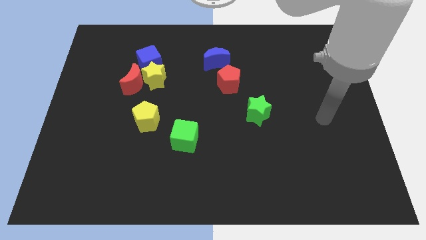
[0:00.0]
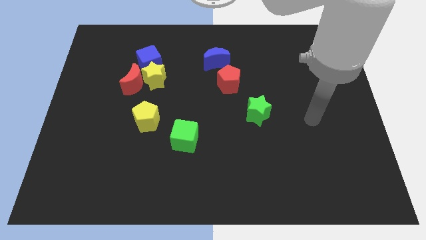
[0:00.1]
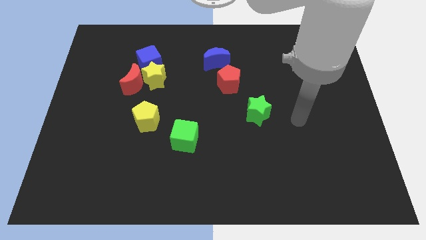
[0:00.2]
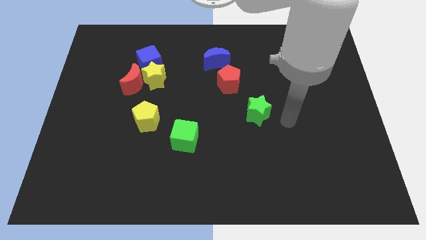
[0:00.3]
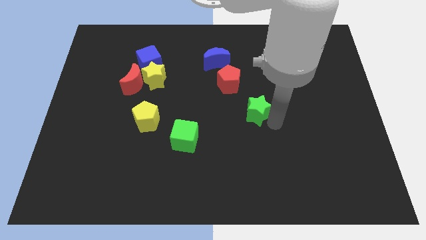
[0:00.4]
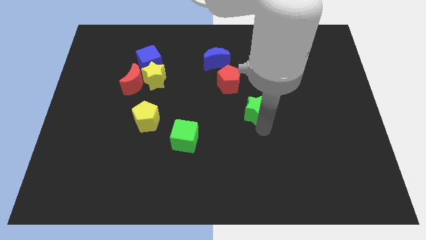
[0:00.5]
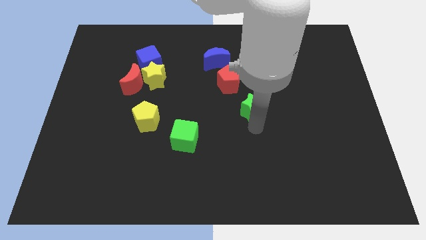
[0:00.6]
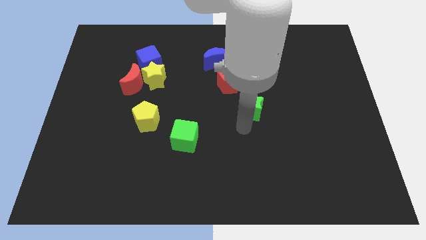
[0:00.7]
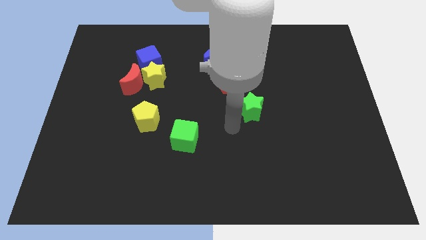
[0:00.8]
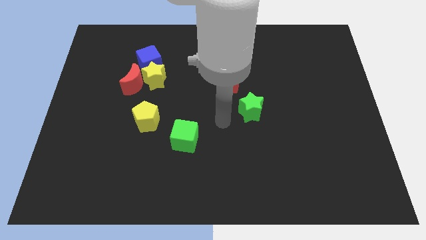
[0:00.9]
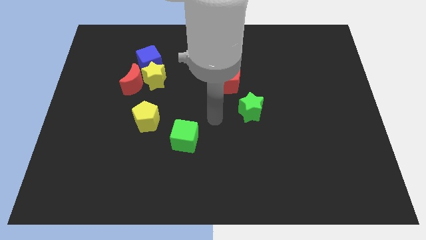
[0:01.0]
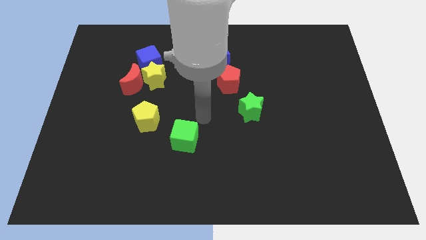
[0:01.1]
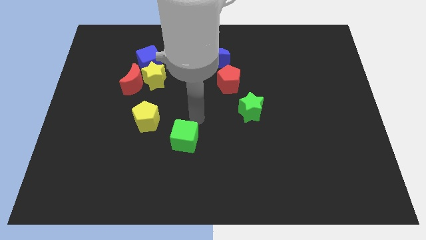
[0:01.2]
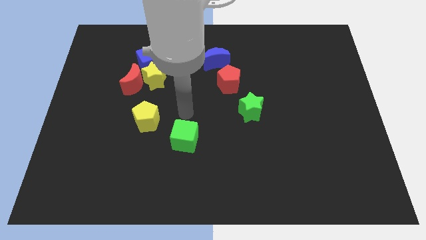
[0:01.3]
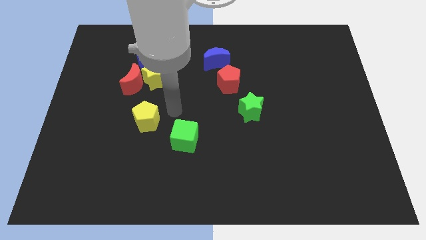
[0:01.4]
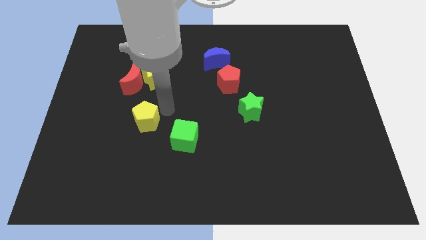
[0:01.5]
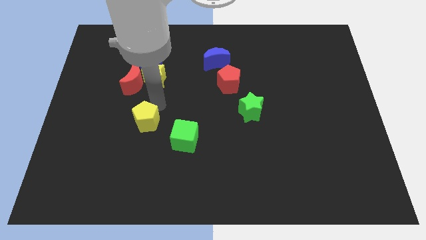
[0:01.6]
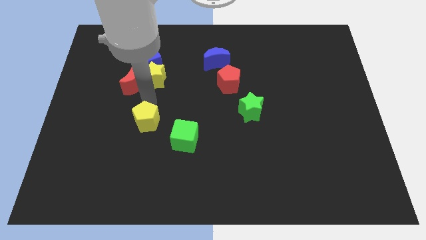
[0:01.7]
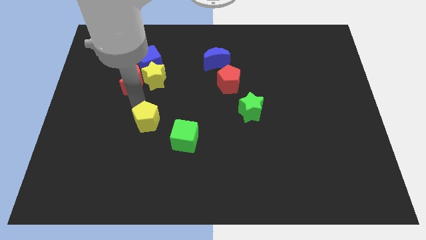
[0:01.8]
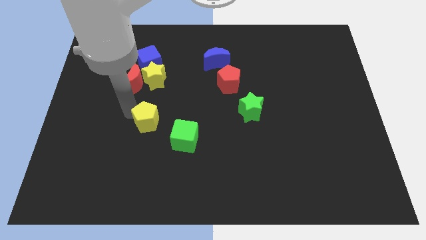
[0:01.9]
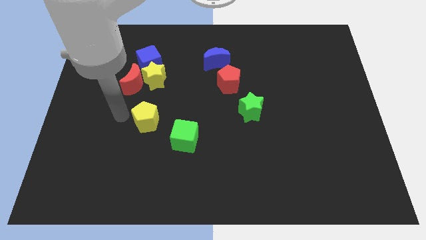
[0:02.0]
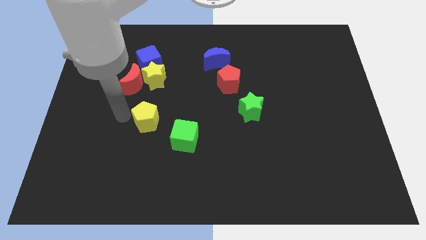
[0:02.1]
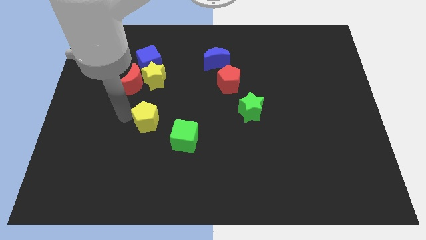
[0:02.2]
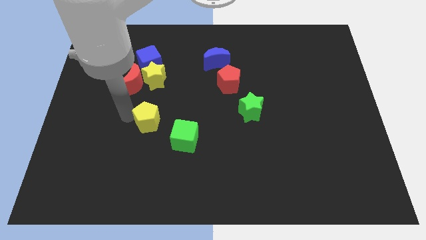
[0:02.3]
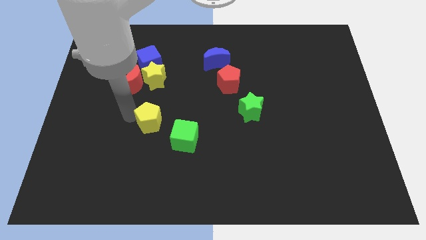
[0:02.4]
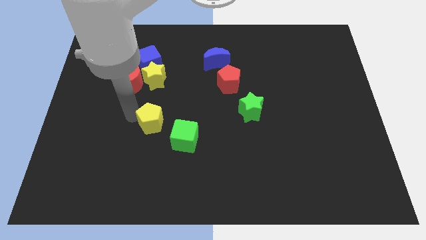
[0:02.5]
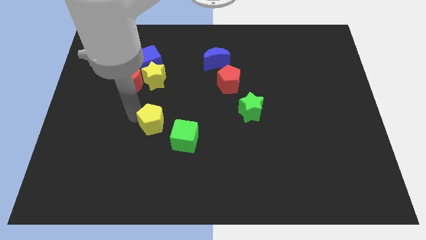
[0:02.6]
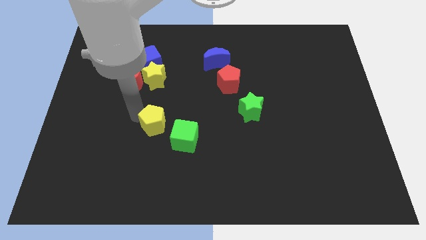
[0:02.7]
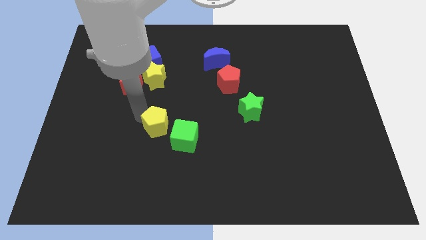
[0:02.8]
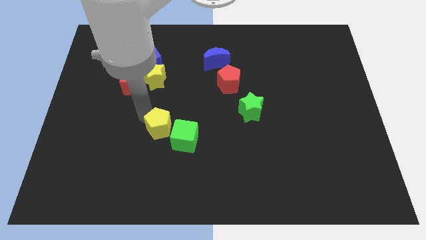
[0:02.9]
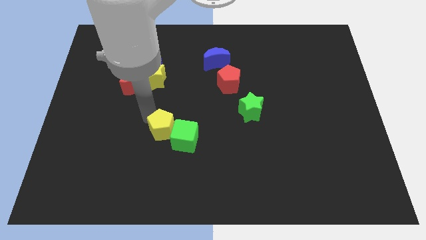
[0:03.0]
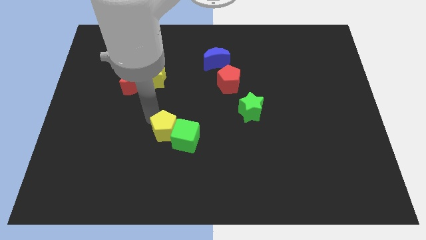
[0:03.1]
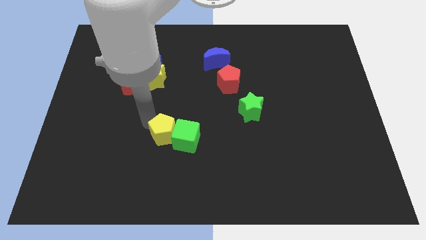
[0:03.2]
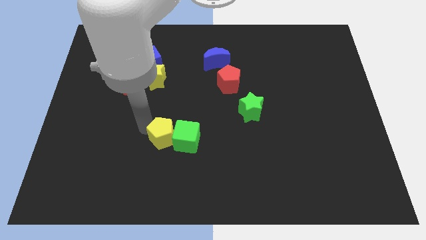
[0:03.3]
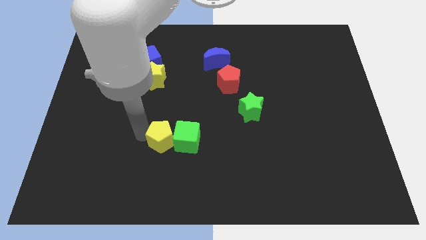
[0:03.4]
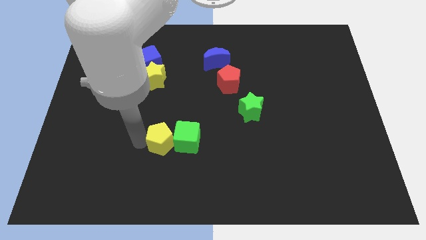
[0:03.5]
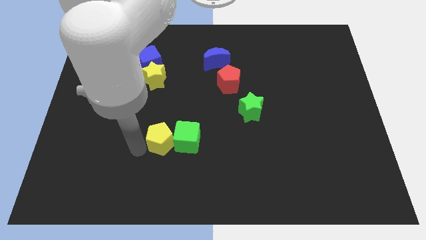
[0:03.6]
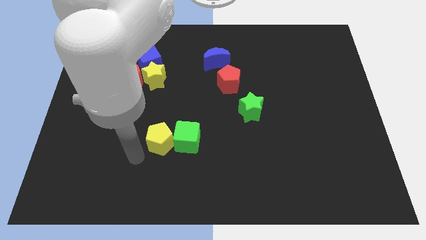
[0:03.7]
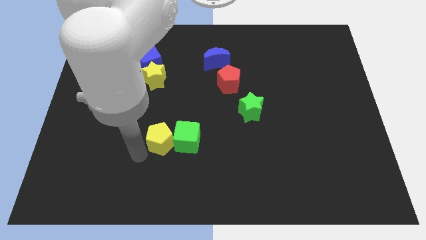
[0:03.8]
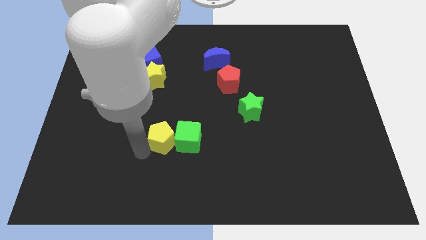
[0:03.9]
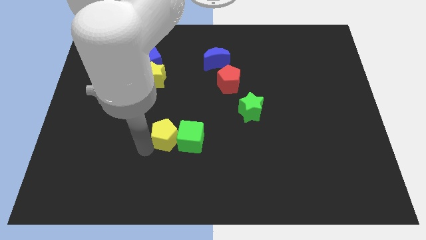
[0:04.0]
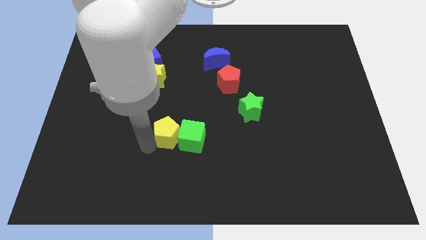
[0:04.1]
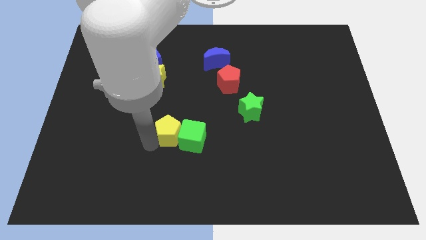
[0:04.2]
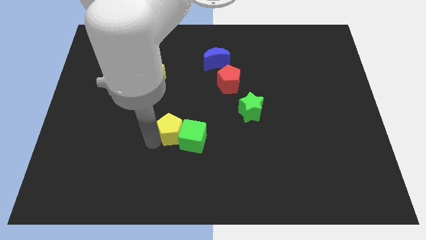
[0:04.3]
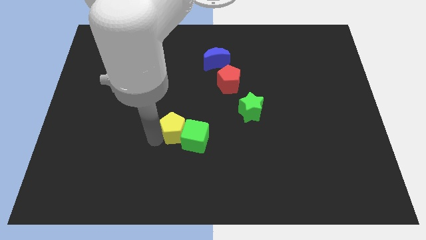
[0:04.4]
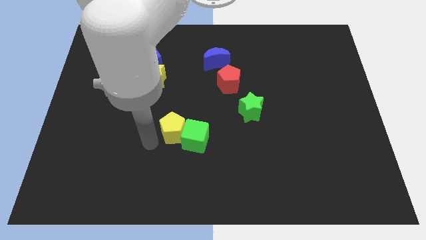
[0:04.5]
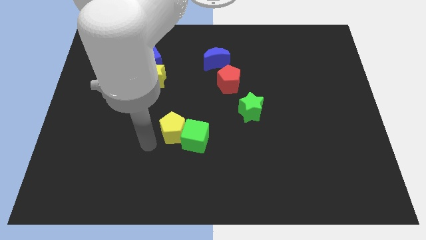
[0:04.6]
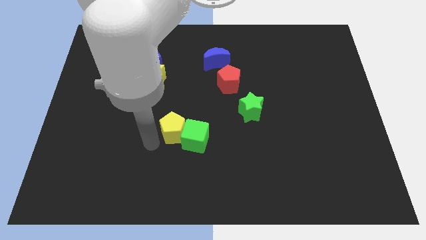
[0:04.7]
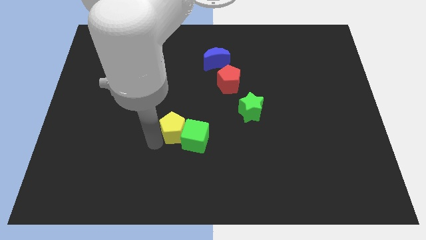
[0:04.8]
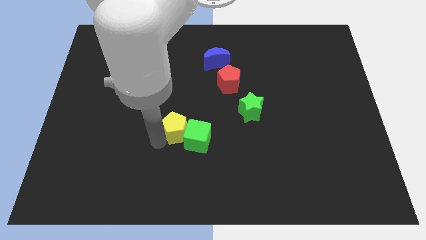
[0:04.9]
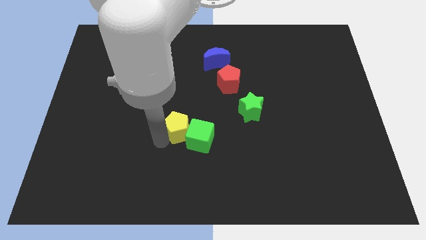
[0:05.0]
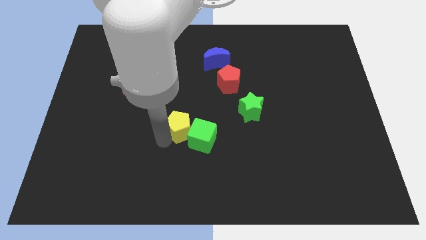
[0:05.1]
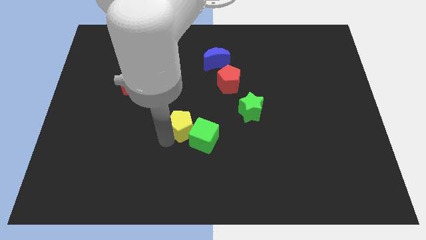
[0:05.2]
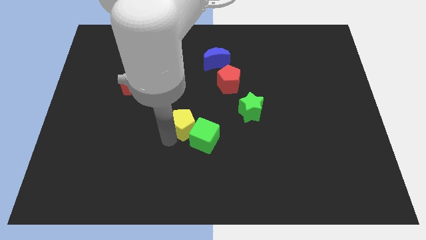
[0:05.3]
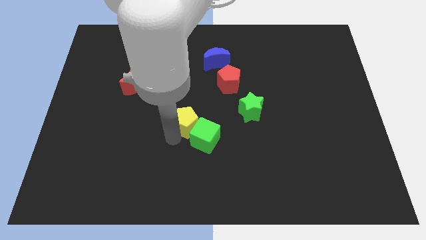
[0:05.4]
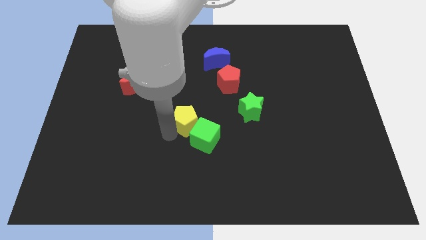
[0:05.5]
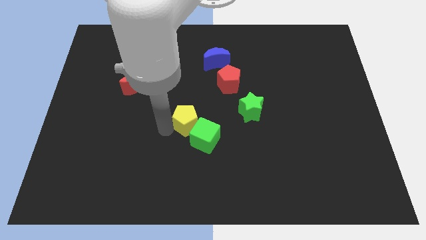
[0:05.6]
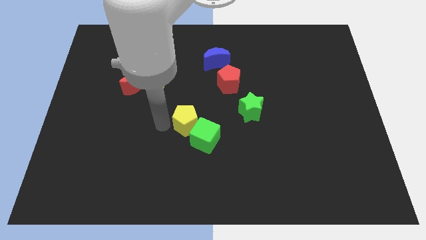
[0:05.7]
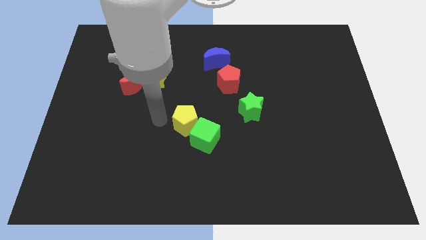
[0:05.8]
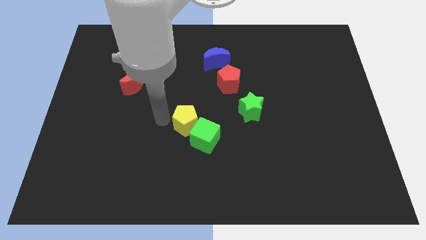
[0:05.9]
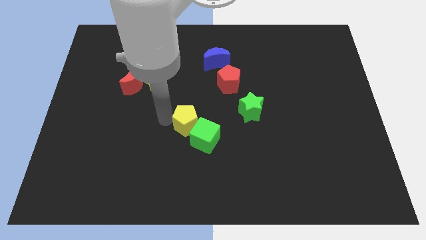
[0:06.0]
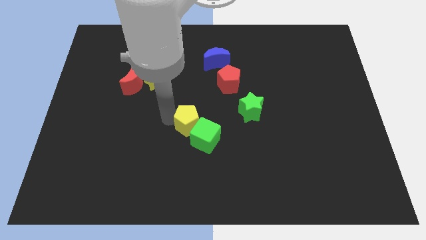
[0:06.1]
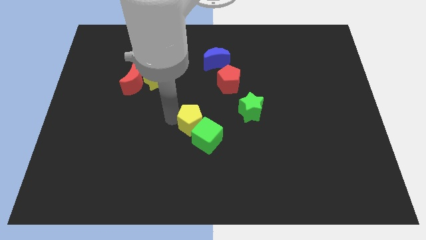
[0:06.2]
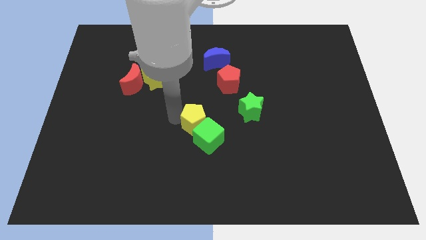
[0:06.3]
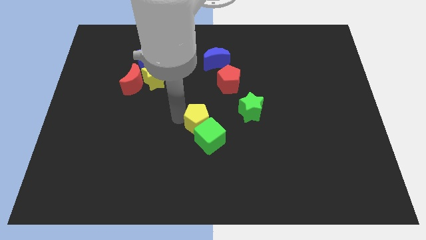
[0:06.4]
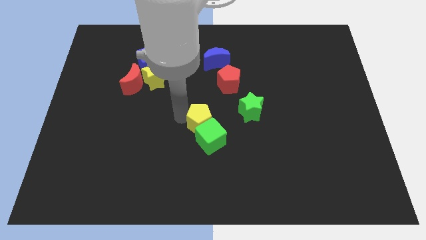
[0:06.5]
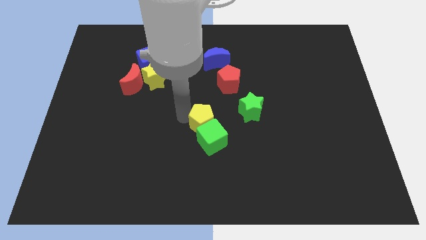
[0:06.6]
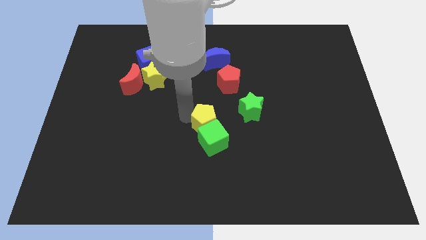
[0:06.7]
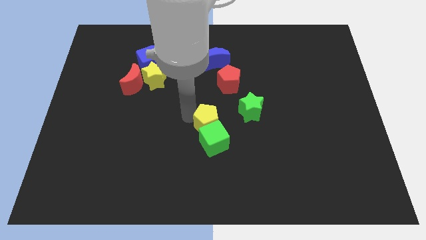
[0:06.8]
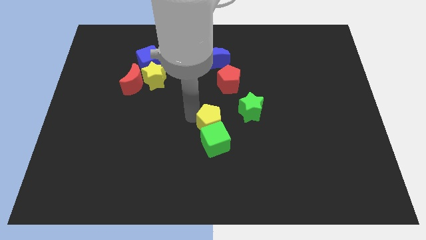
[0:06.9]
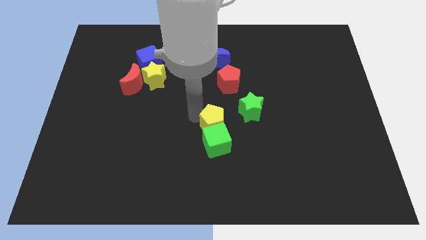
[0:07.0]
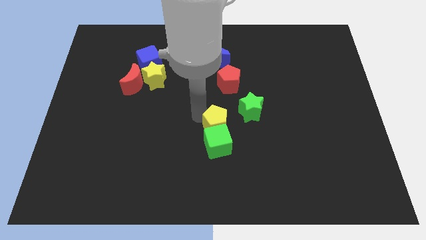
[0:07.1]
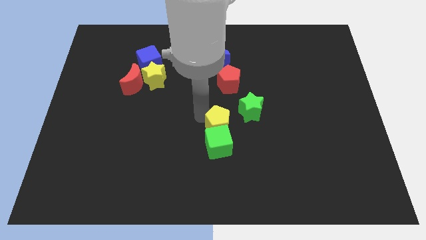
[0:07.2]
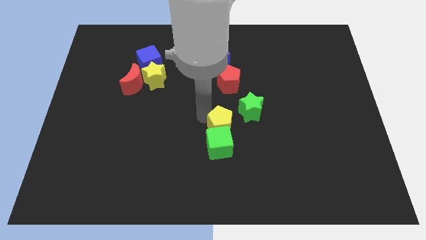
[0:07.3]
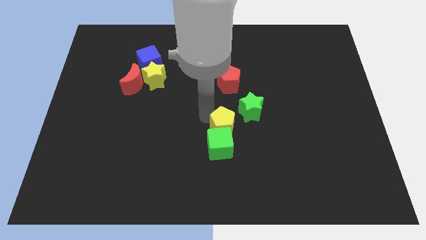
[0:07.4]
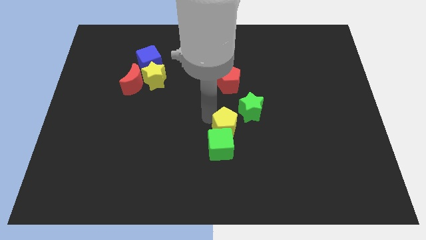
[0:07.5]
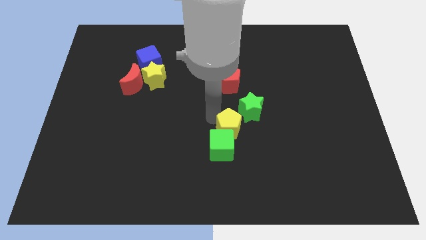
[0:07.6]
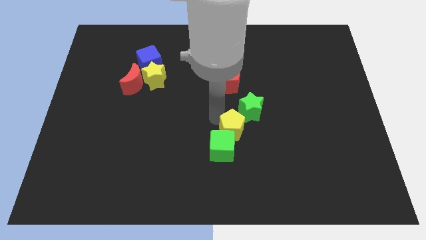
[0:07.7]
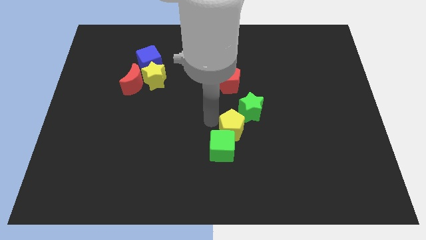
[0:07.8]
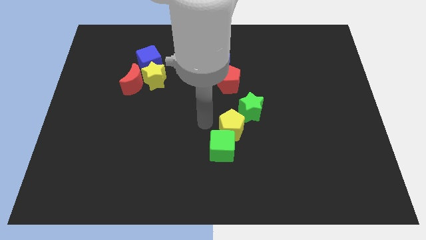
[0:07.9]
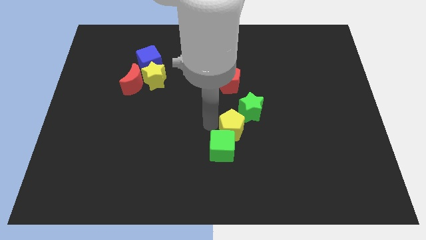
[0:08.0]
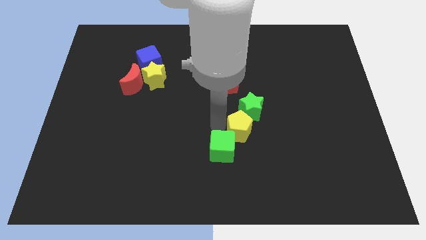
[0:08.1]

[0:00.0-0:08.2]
slide the yellow pentagon right
